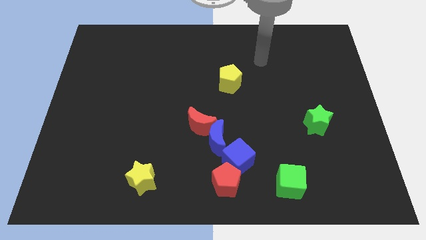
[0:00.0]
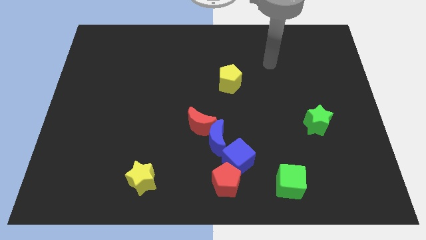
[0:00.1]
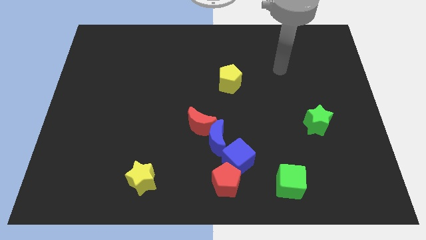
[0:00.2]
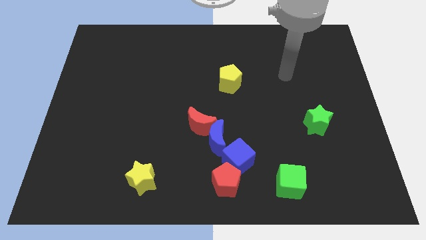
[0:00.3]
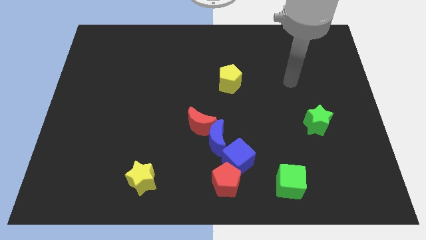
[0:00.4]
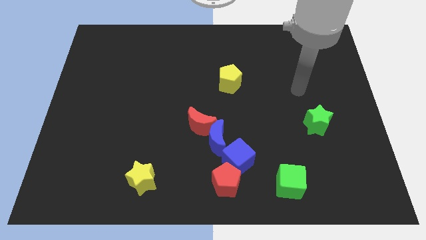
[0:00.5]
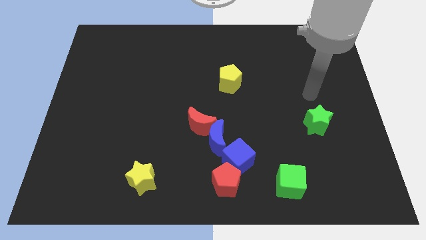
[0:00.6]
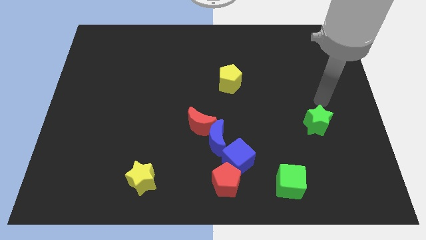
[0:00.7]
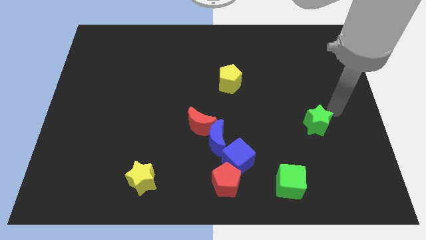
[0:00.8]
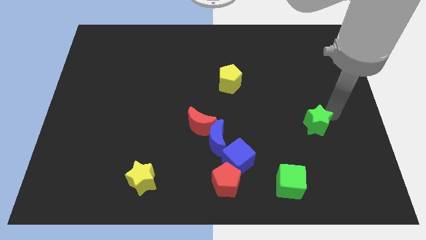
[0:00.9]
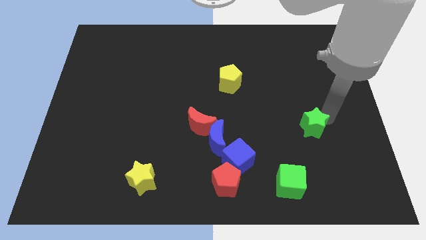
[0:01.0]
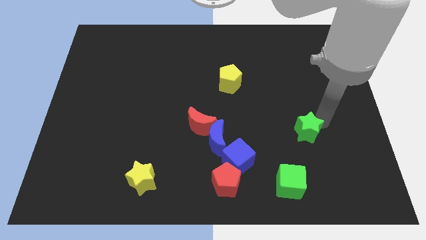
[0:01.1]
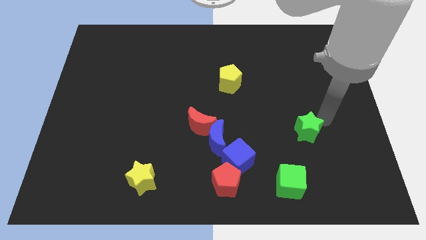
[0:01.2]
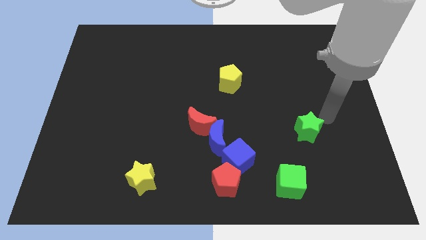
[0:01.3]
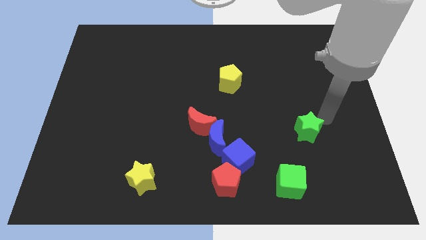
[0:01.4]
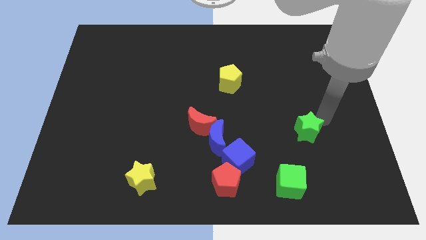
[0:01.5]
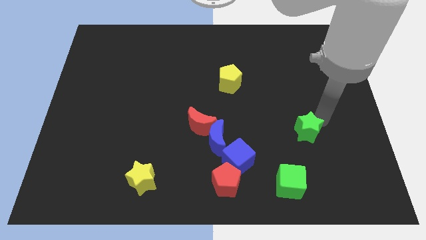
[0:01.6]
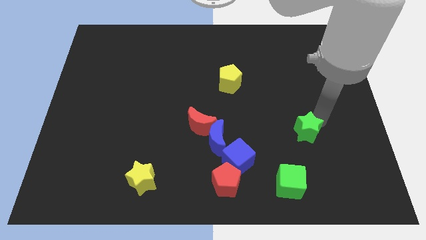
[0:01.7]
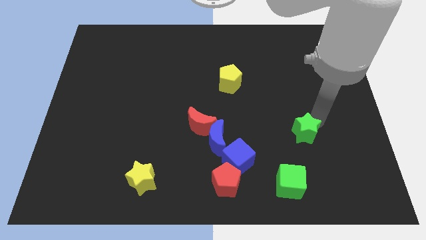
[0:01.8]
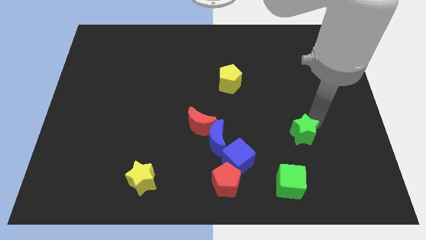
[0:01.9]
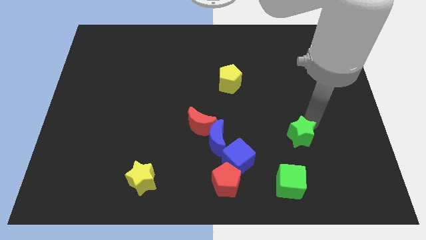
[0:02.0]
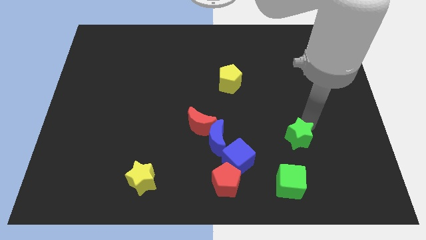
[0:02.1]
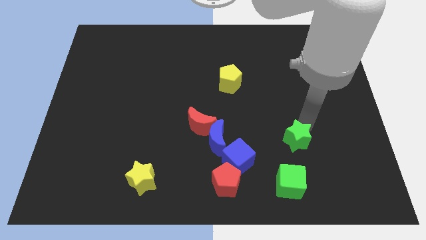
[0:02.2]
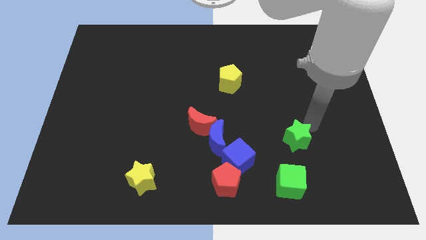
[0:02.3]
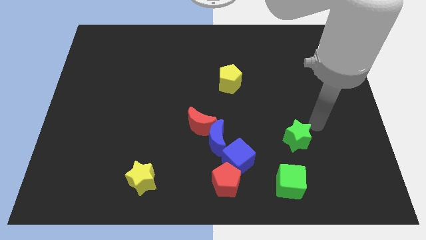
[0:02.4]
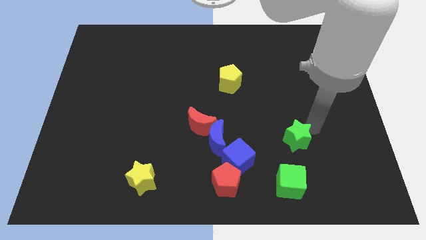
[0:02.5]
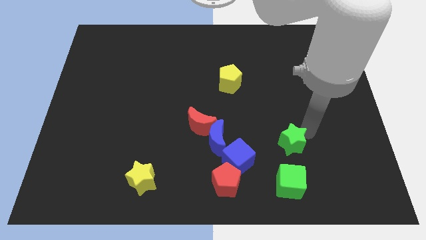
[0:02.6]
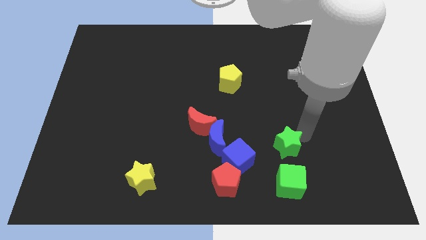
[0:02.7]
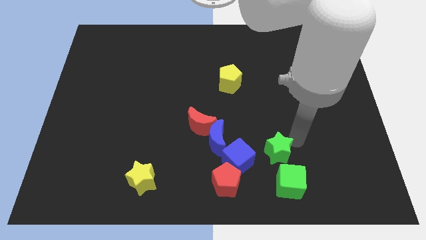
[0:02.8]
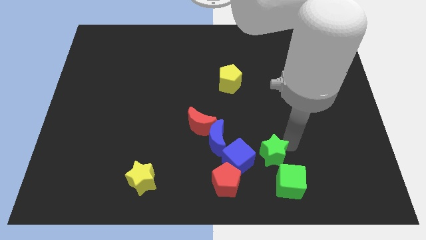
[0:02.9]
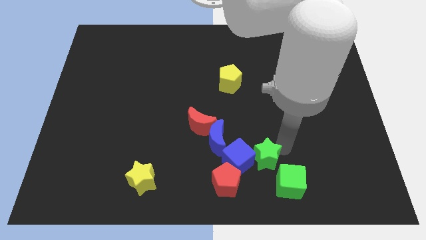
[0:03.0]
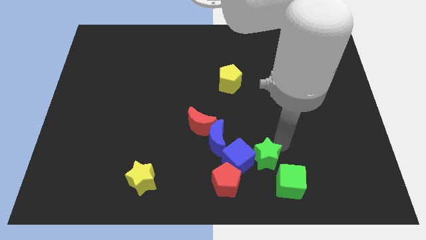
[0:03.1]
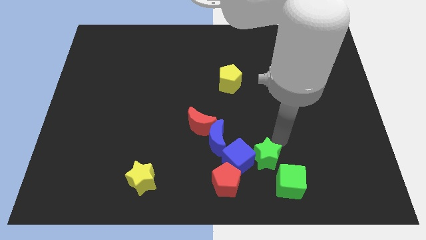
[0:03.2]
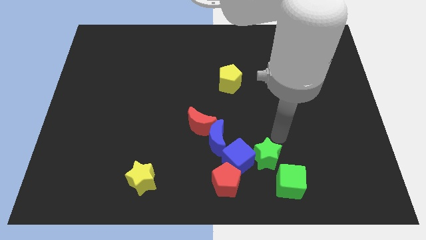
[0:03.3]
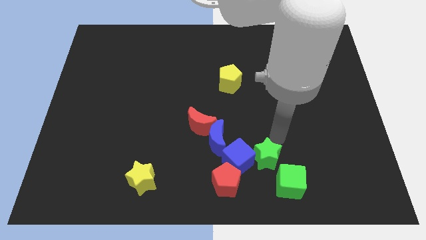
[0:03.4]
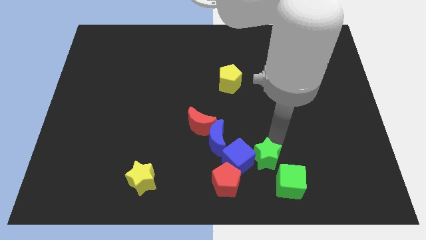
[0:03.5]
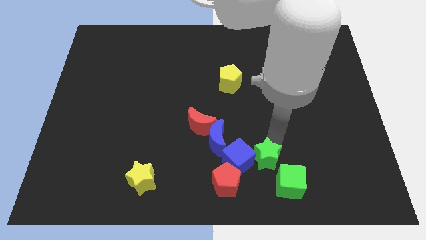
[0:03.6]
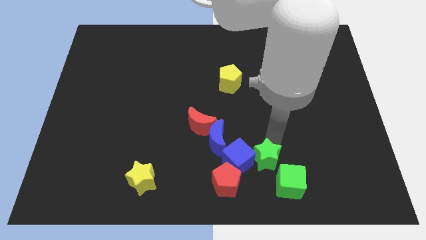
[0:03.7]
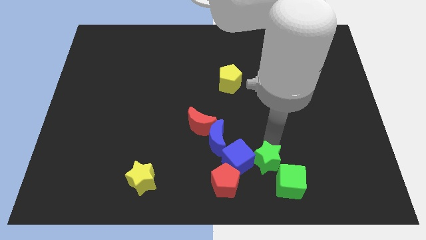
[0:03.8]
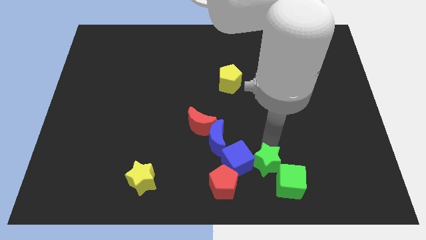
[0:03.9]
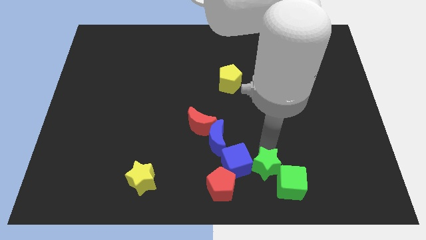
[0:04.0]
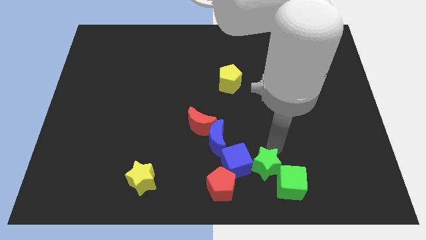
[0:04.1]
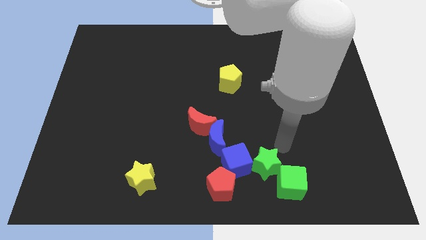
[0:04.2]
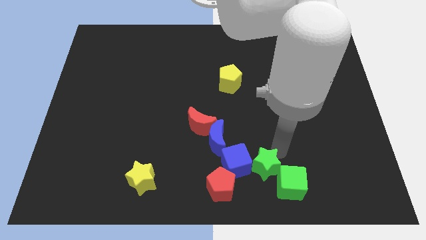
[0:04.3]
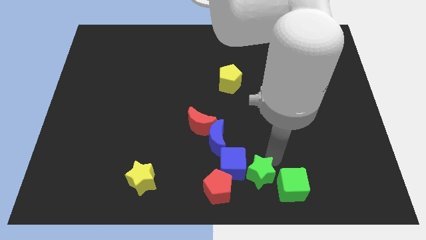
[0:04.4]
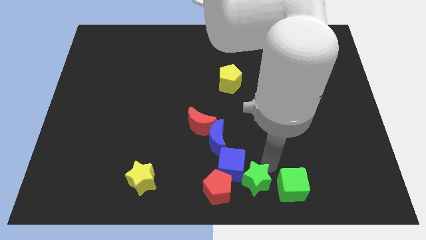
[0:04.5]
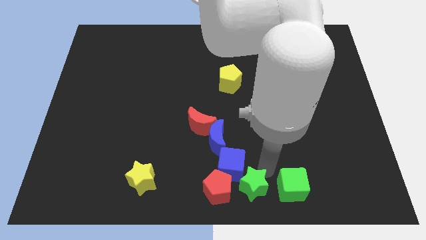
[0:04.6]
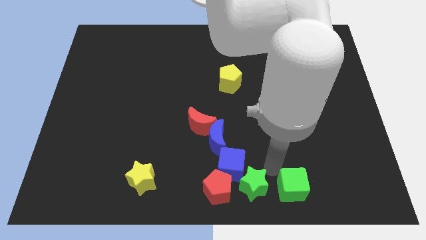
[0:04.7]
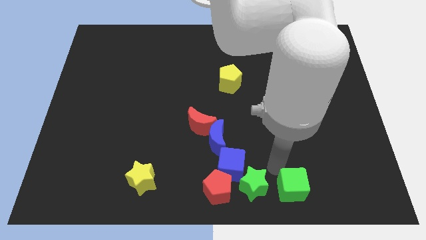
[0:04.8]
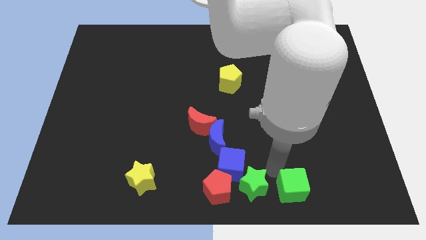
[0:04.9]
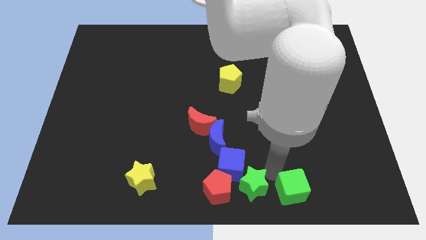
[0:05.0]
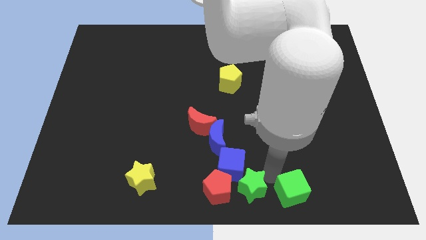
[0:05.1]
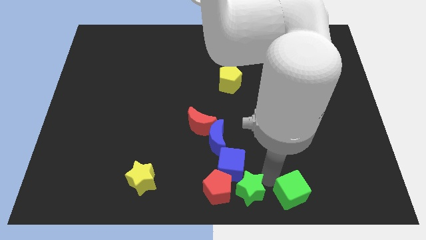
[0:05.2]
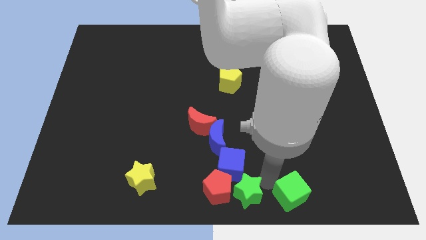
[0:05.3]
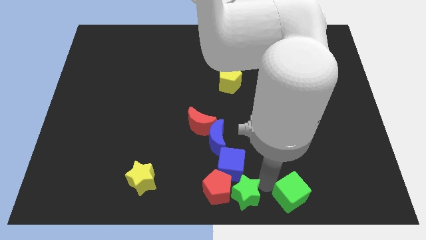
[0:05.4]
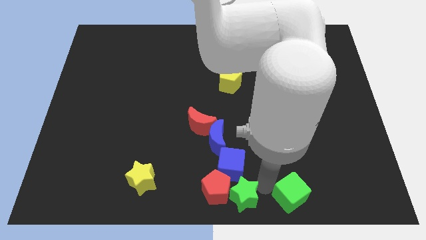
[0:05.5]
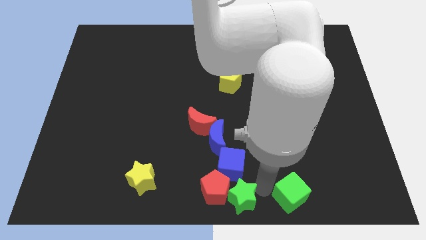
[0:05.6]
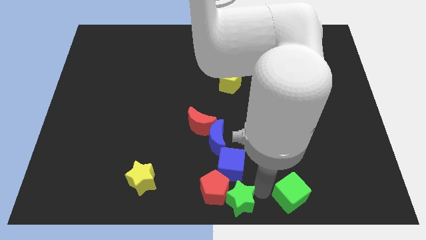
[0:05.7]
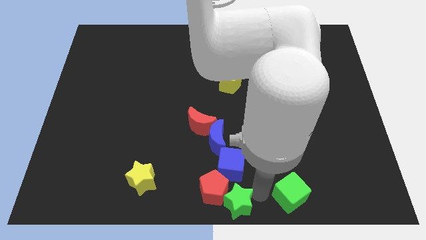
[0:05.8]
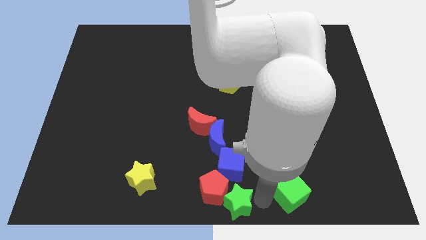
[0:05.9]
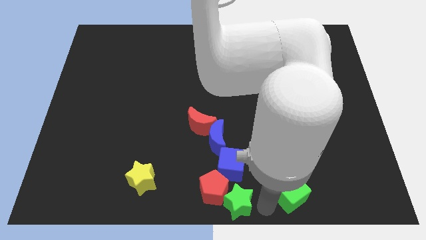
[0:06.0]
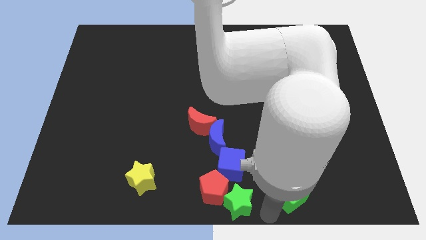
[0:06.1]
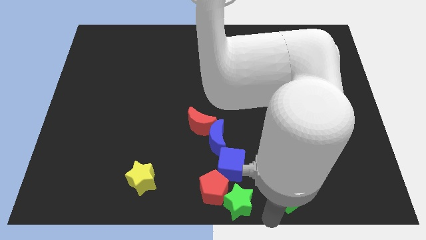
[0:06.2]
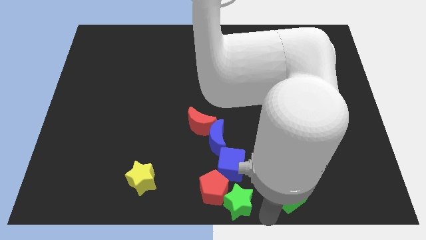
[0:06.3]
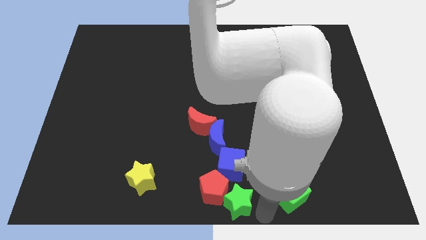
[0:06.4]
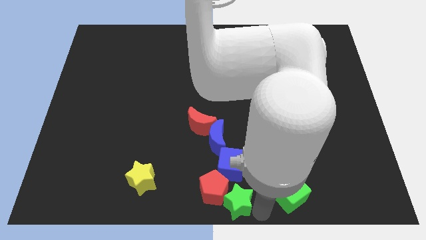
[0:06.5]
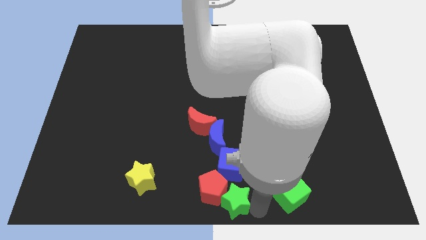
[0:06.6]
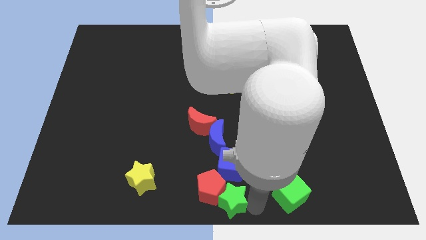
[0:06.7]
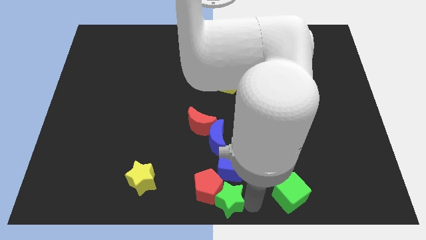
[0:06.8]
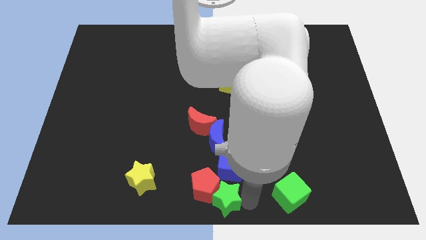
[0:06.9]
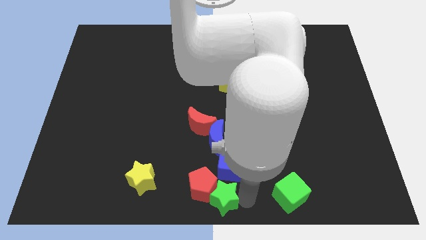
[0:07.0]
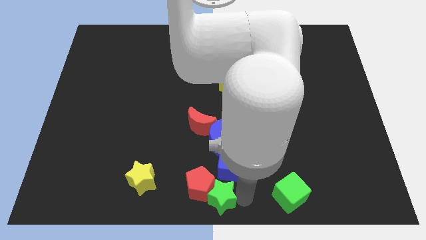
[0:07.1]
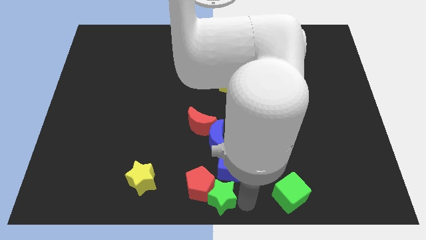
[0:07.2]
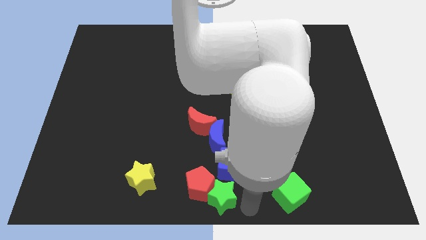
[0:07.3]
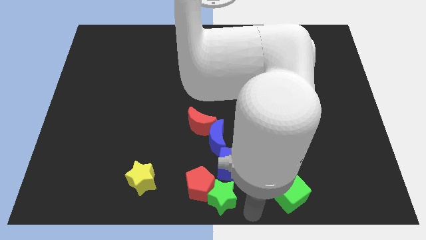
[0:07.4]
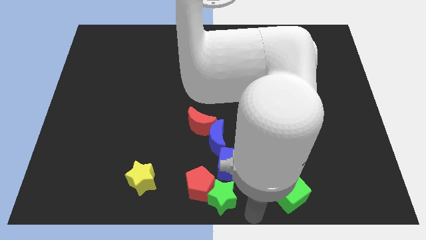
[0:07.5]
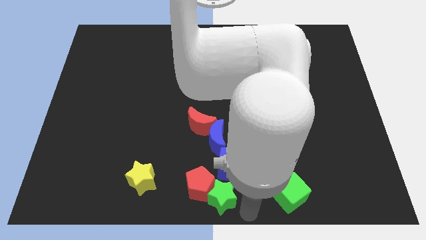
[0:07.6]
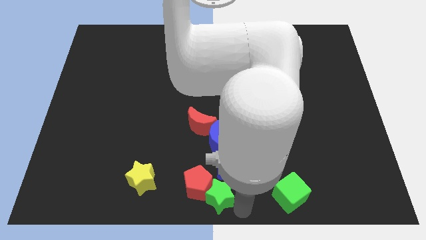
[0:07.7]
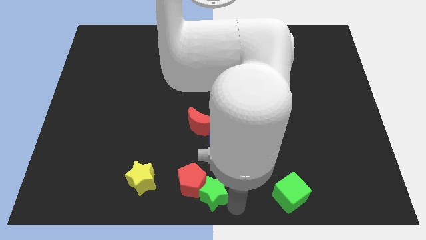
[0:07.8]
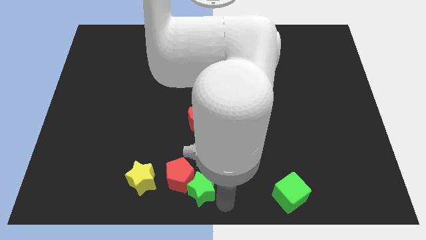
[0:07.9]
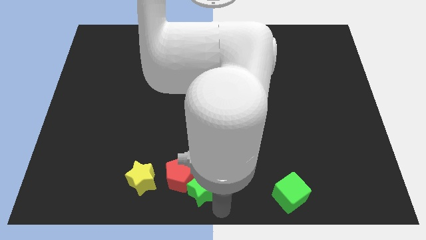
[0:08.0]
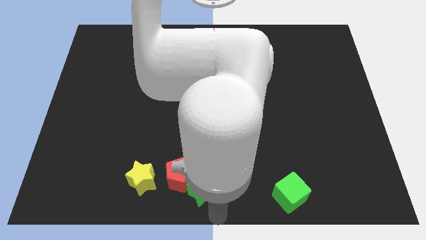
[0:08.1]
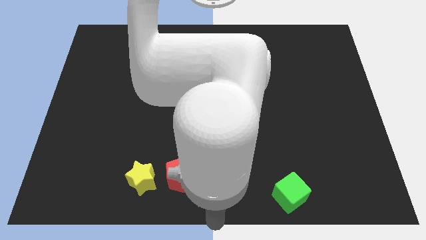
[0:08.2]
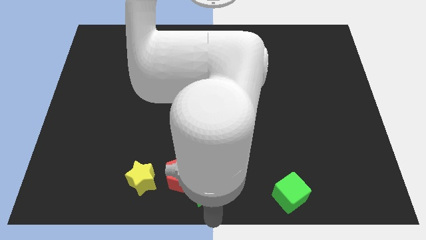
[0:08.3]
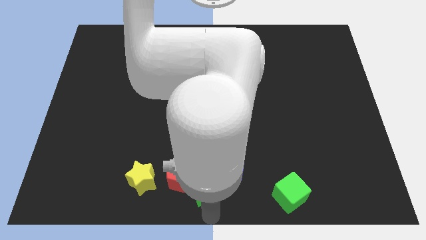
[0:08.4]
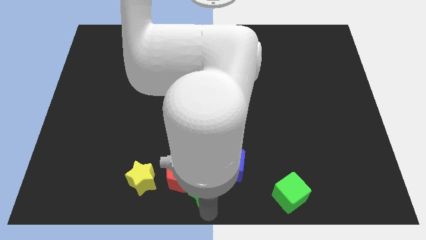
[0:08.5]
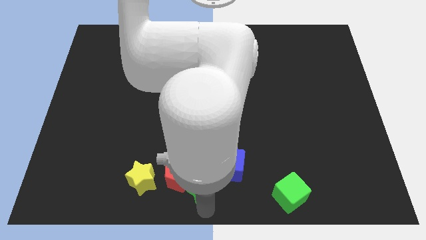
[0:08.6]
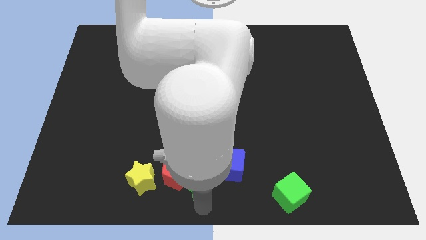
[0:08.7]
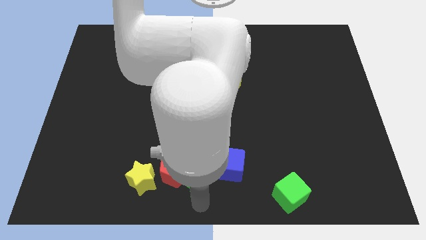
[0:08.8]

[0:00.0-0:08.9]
push the green star diagonally down and to the left of the blue moon
